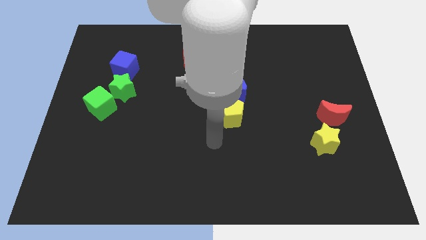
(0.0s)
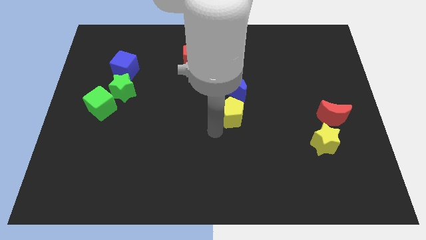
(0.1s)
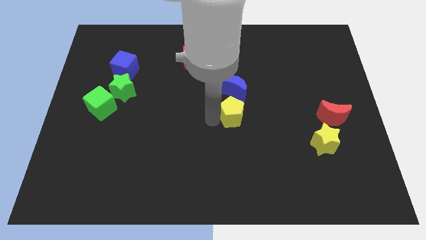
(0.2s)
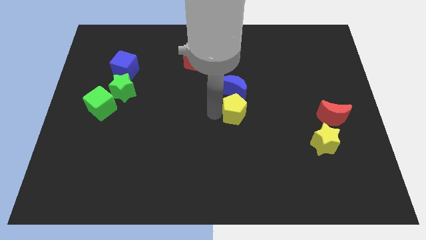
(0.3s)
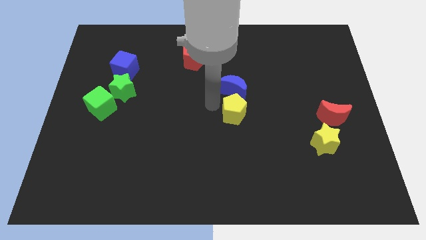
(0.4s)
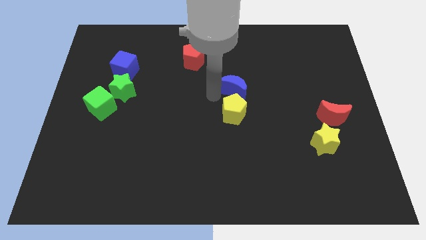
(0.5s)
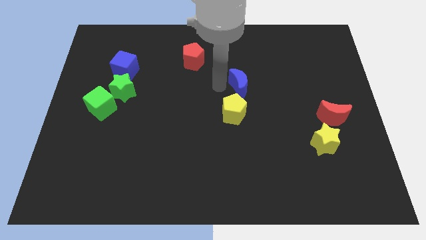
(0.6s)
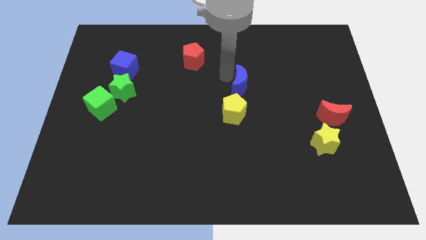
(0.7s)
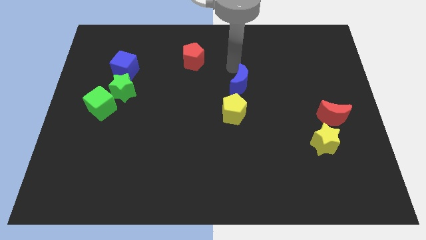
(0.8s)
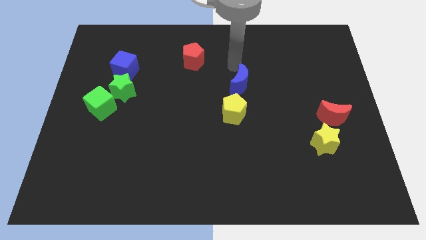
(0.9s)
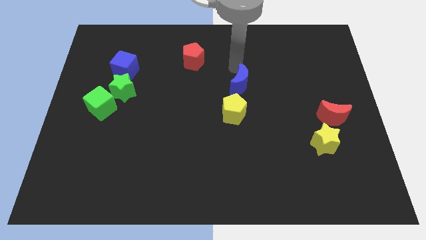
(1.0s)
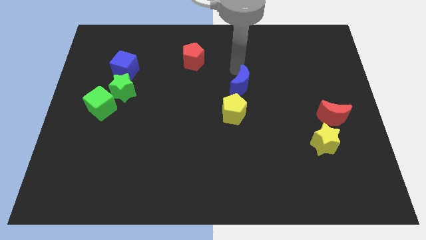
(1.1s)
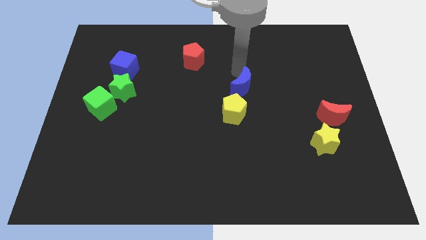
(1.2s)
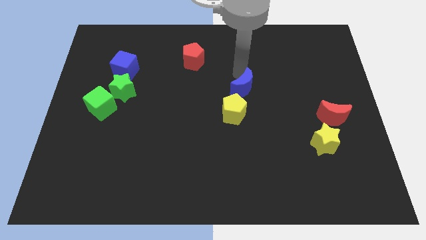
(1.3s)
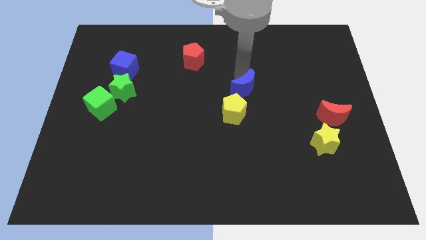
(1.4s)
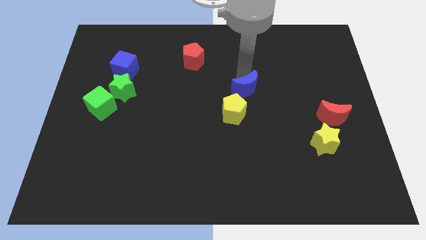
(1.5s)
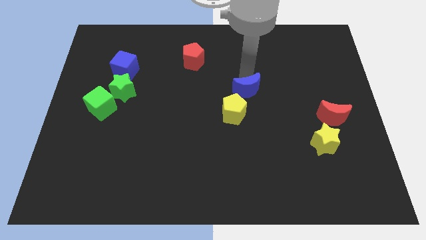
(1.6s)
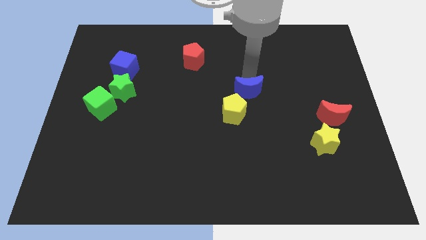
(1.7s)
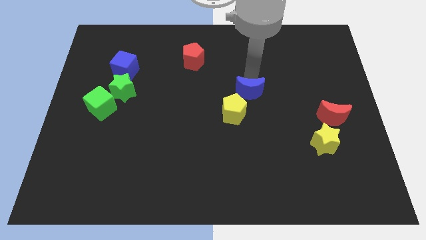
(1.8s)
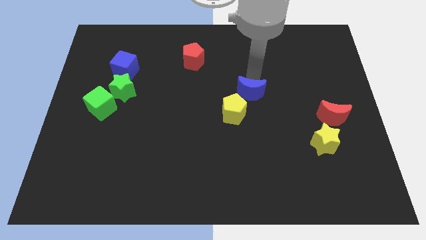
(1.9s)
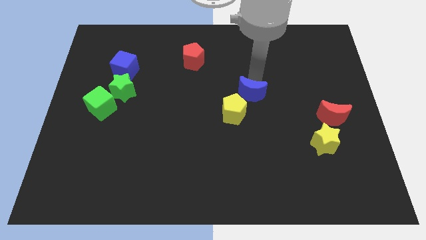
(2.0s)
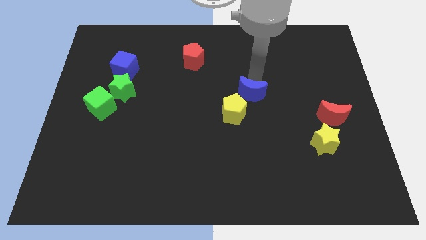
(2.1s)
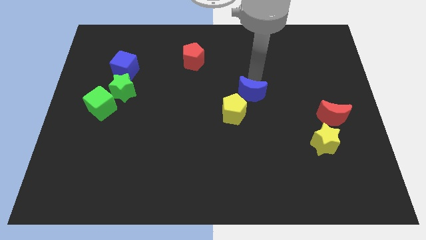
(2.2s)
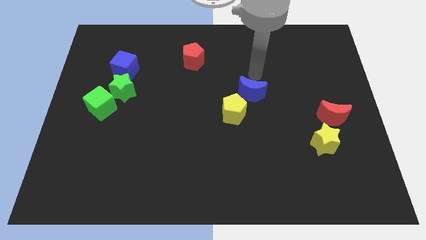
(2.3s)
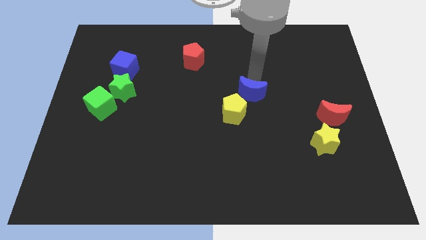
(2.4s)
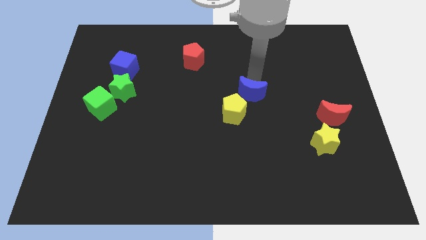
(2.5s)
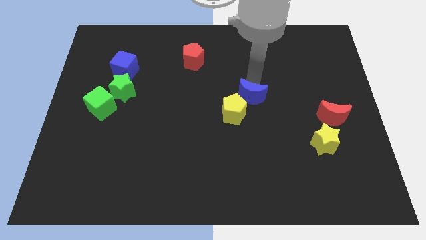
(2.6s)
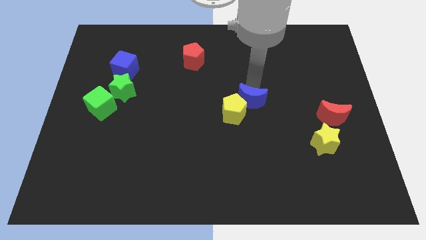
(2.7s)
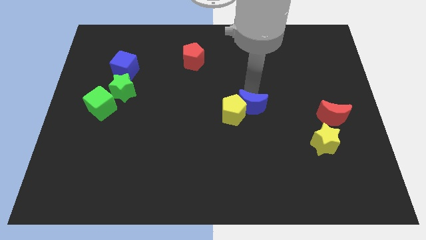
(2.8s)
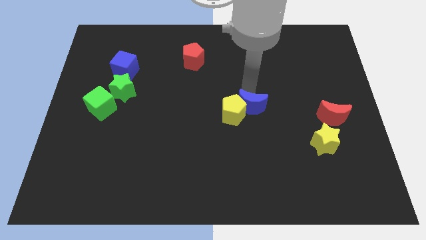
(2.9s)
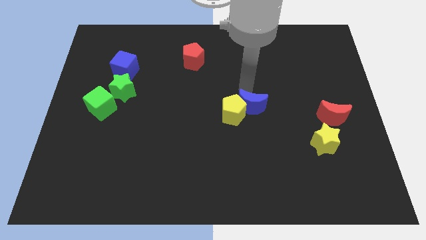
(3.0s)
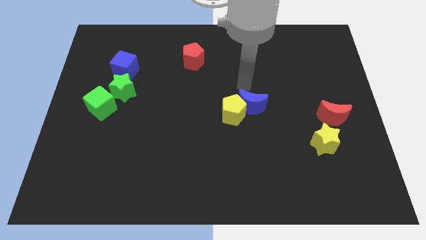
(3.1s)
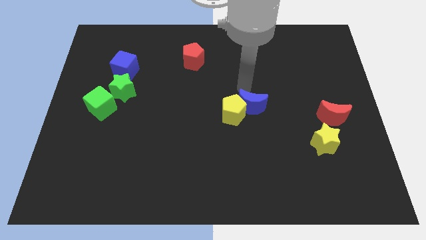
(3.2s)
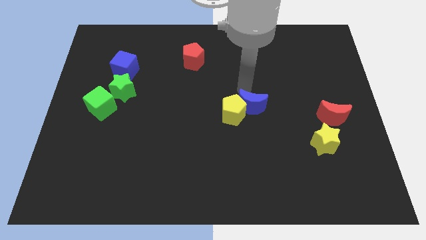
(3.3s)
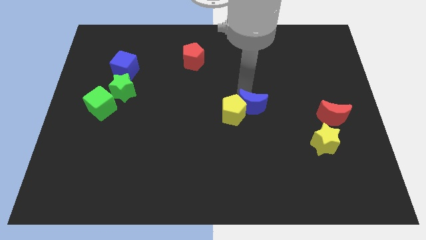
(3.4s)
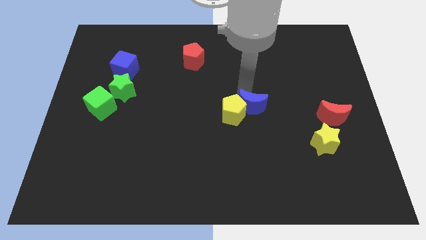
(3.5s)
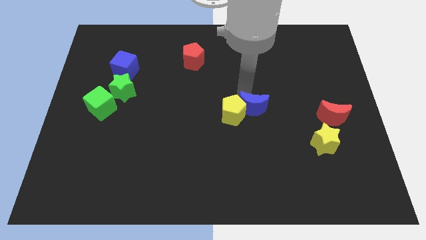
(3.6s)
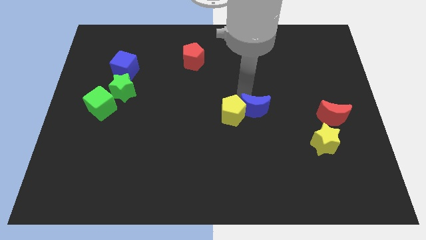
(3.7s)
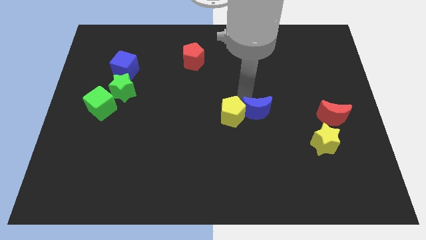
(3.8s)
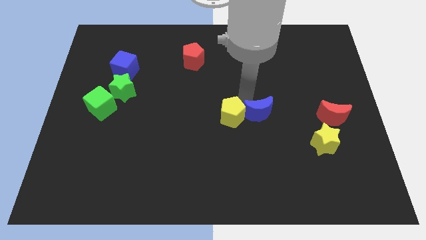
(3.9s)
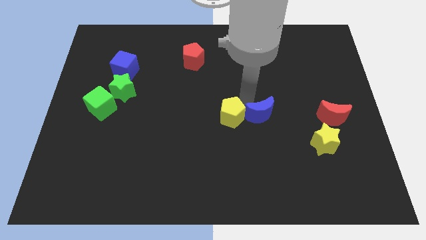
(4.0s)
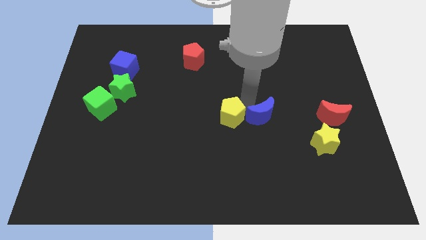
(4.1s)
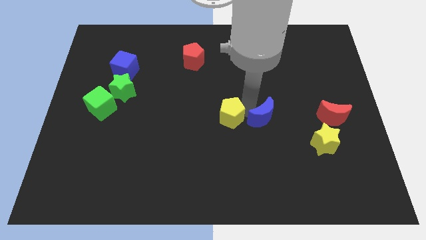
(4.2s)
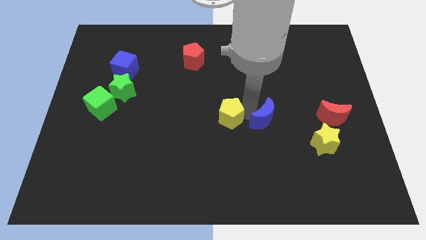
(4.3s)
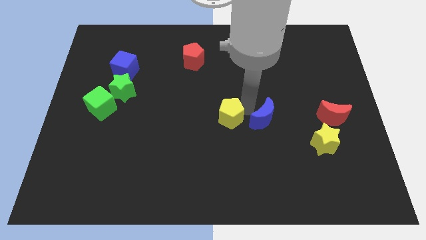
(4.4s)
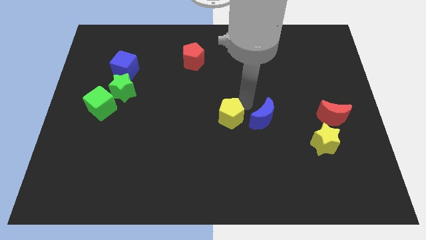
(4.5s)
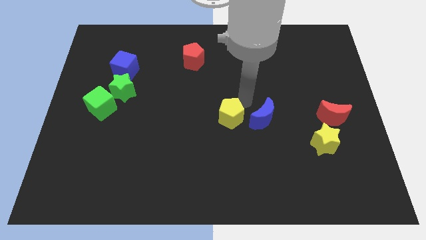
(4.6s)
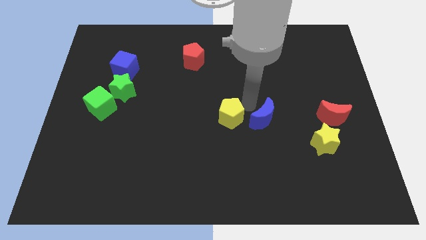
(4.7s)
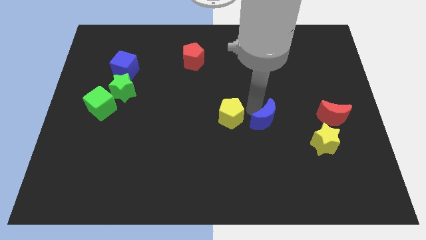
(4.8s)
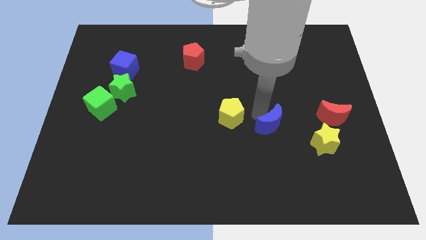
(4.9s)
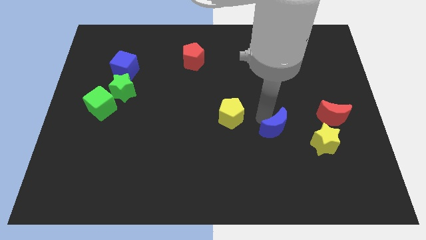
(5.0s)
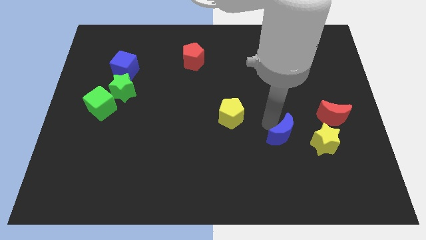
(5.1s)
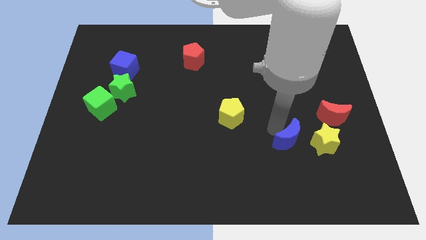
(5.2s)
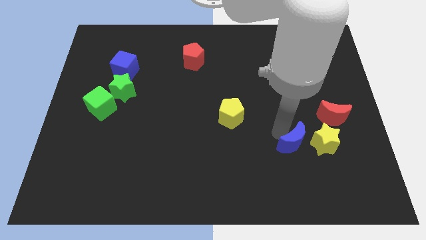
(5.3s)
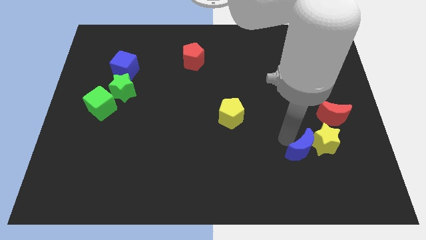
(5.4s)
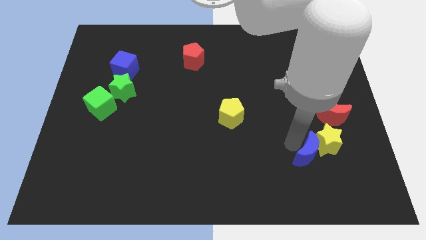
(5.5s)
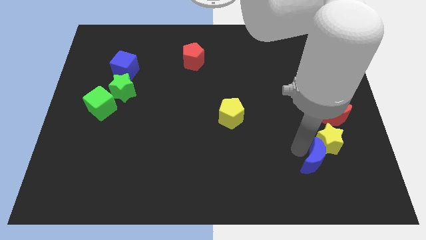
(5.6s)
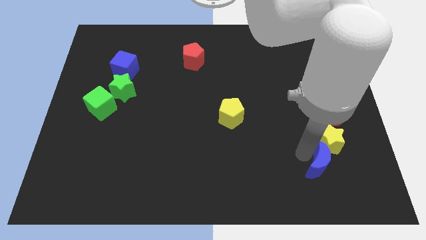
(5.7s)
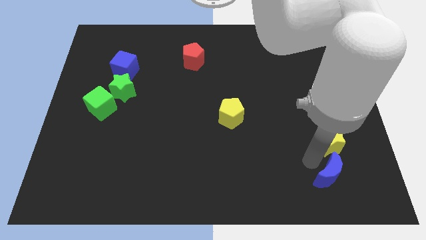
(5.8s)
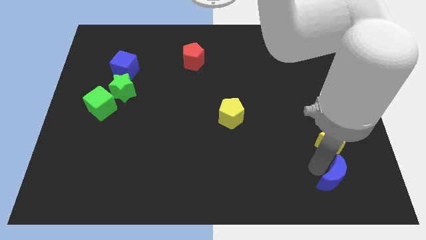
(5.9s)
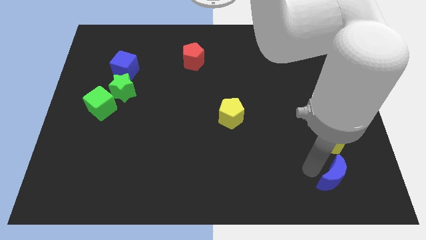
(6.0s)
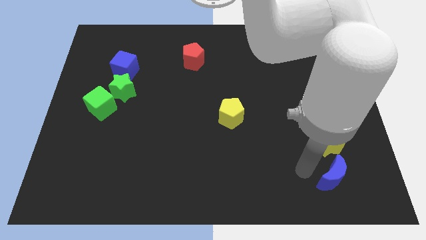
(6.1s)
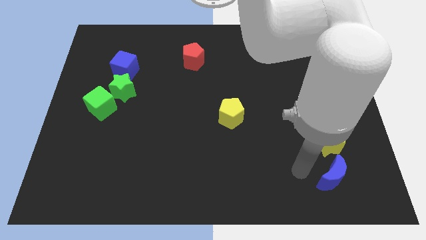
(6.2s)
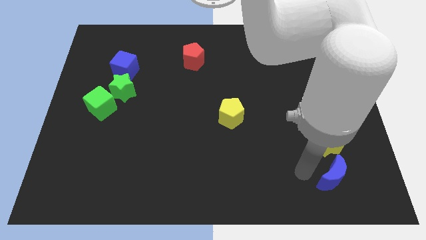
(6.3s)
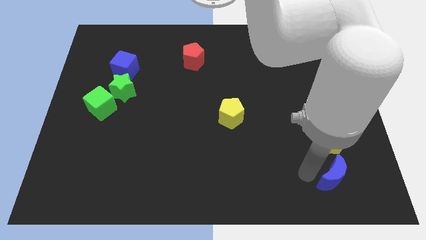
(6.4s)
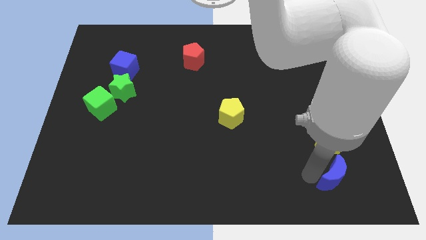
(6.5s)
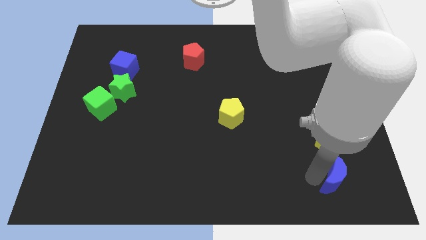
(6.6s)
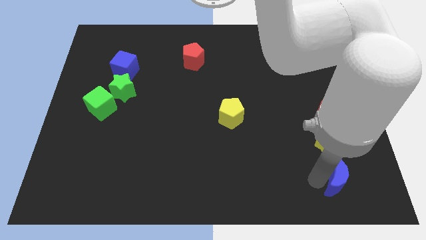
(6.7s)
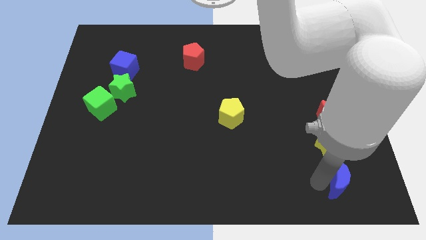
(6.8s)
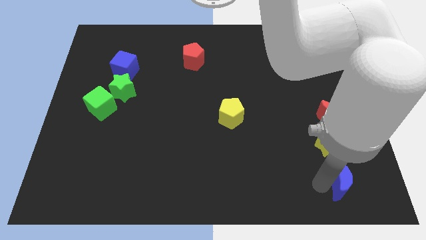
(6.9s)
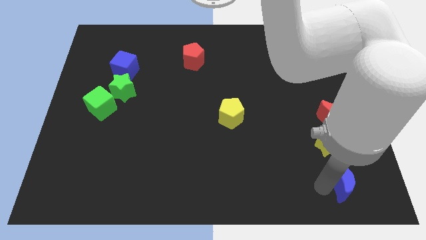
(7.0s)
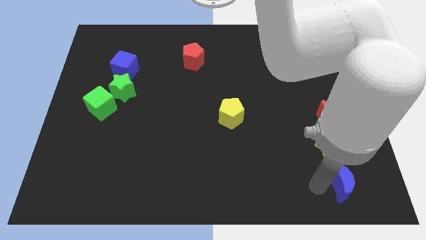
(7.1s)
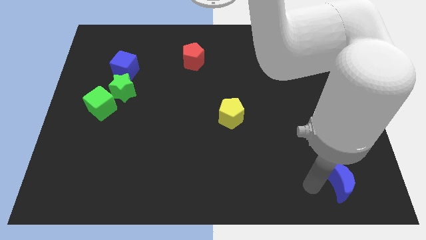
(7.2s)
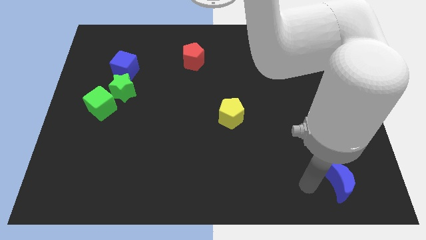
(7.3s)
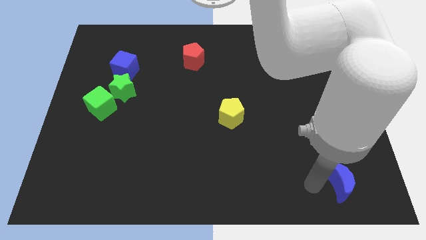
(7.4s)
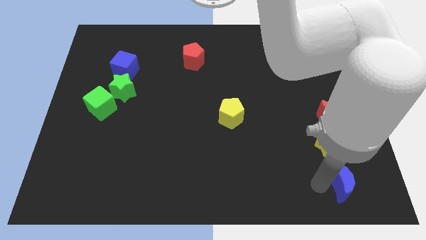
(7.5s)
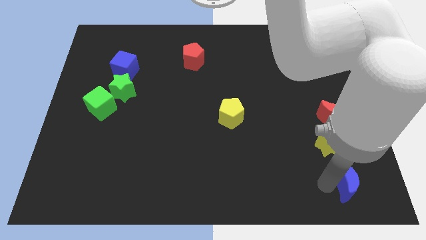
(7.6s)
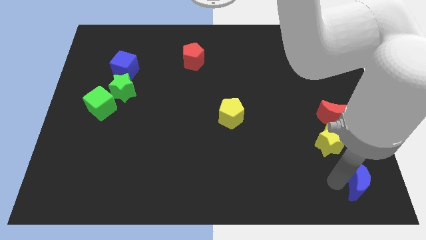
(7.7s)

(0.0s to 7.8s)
put the blue moon to the bottom right corner
